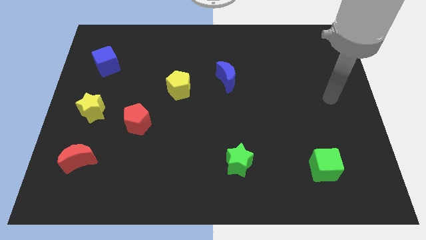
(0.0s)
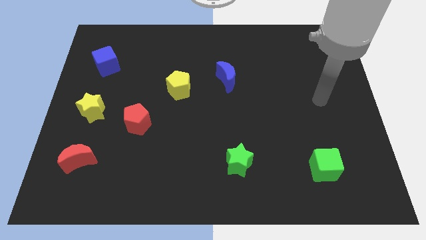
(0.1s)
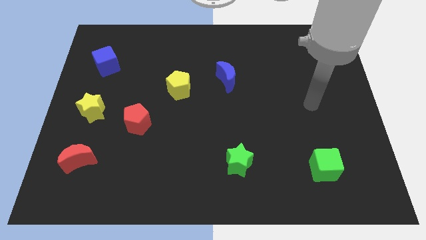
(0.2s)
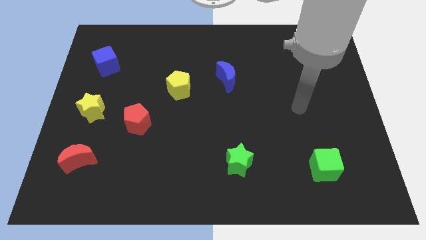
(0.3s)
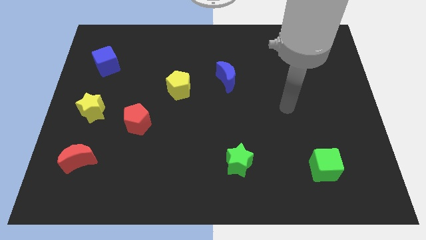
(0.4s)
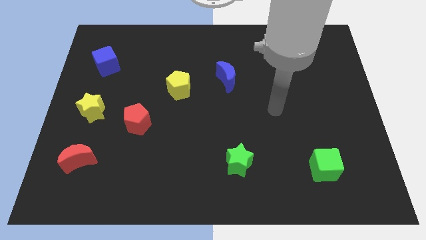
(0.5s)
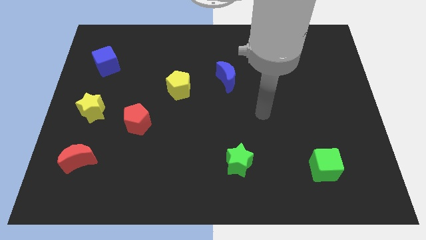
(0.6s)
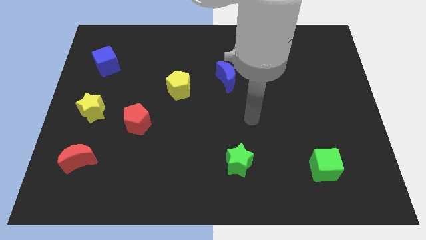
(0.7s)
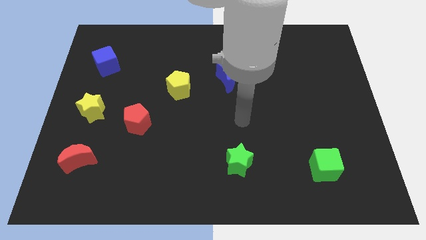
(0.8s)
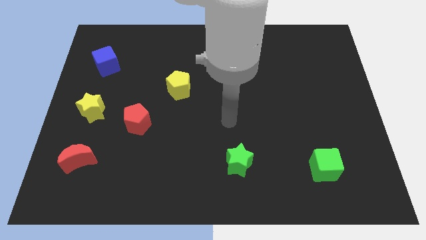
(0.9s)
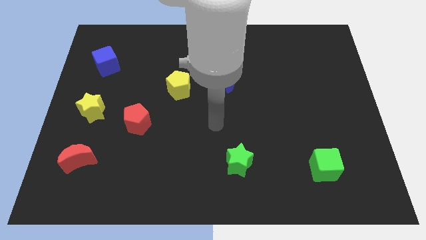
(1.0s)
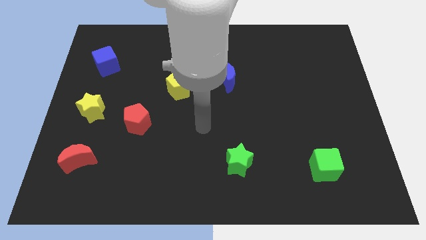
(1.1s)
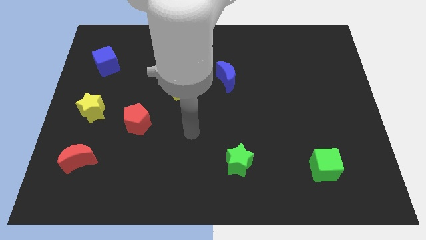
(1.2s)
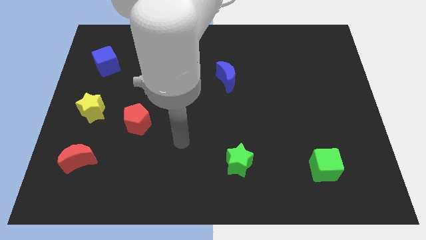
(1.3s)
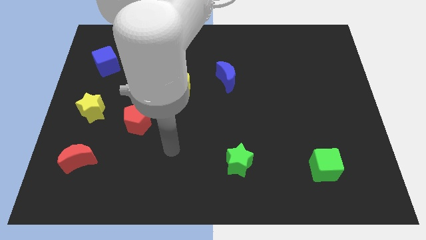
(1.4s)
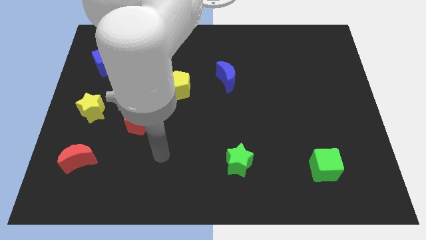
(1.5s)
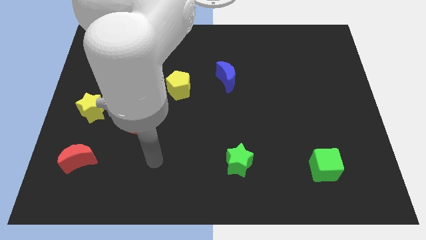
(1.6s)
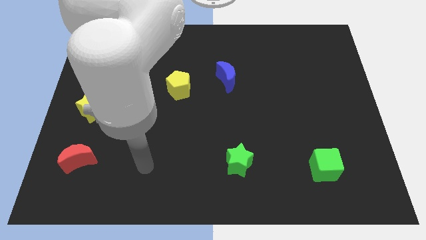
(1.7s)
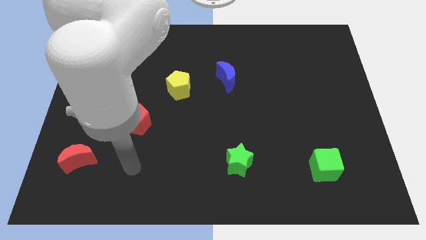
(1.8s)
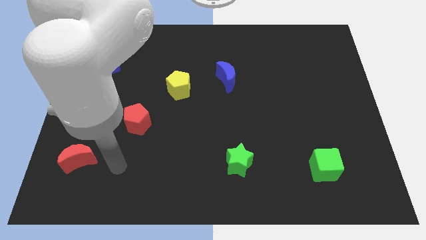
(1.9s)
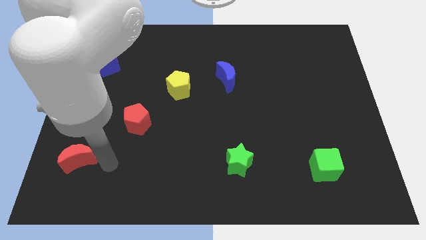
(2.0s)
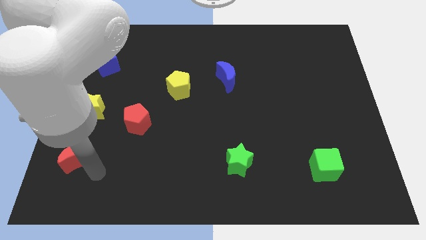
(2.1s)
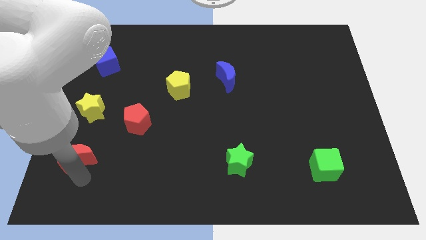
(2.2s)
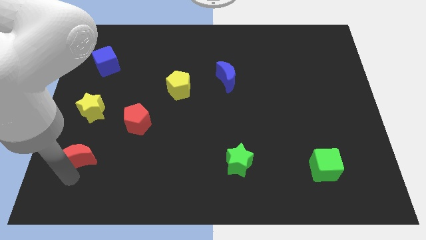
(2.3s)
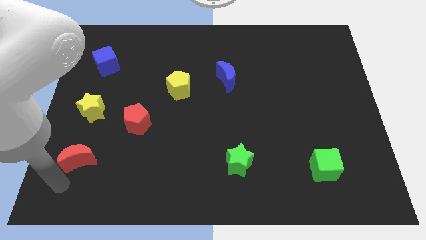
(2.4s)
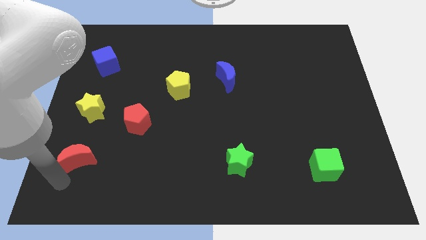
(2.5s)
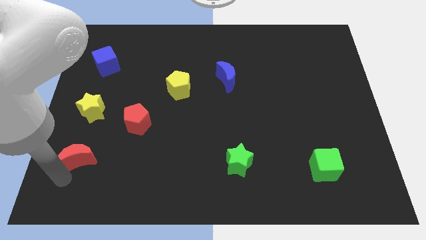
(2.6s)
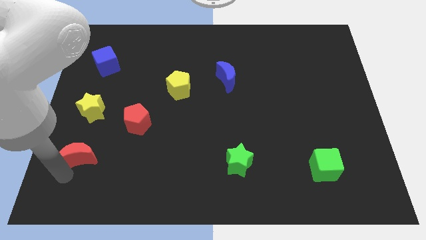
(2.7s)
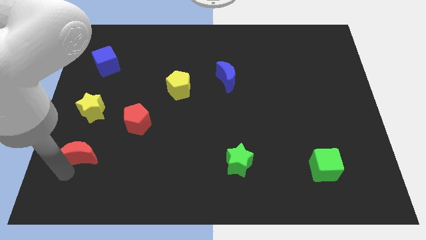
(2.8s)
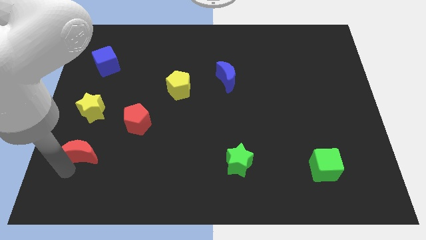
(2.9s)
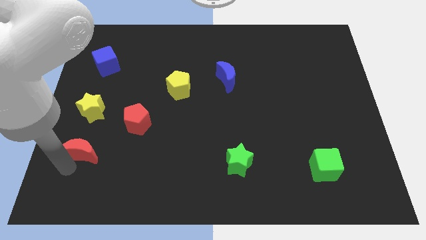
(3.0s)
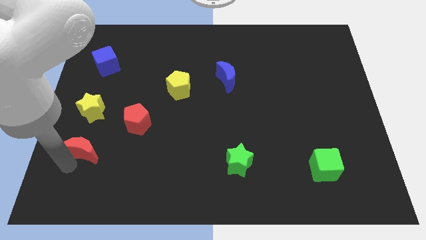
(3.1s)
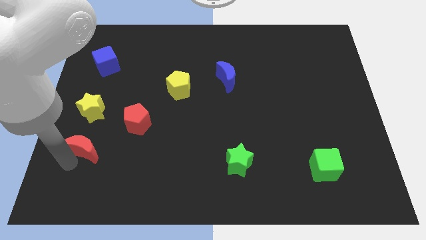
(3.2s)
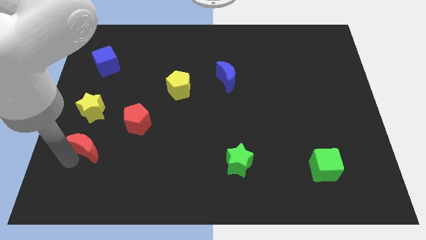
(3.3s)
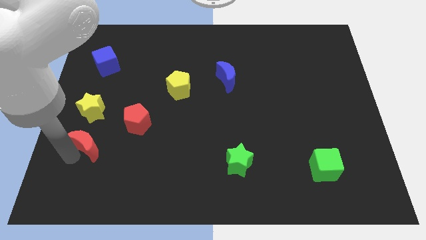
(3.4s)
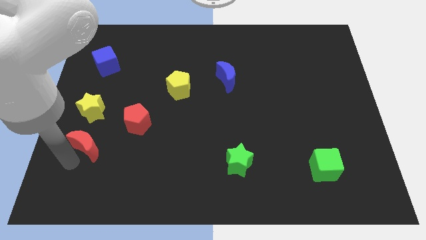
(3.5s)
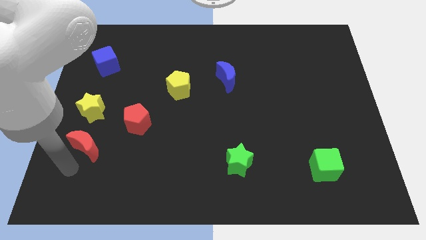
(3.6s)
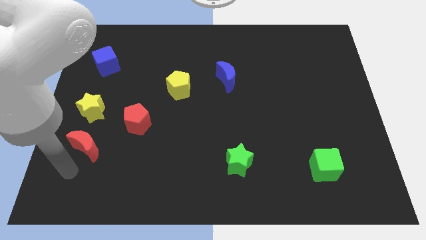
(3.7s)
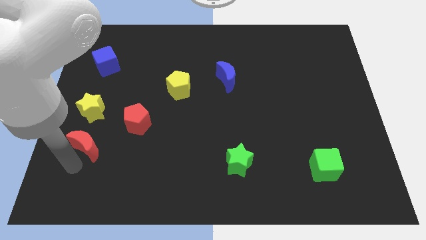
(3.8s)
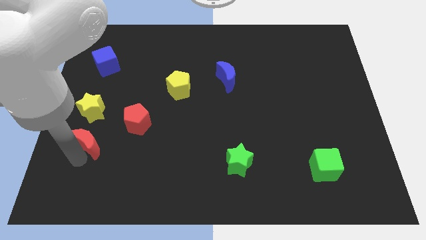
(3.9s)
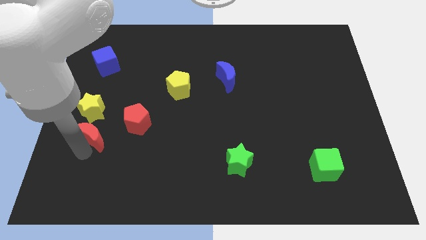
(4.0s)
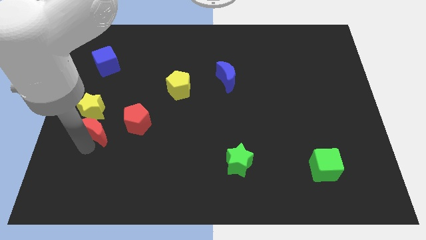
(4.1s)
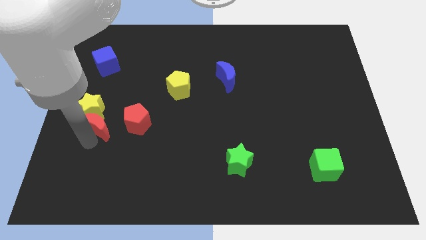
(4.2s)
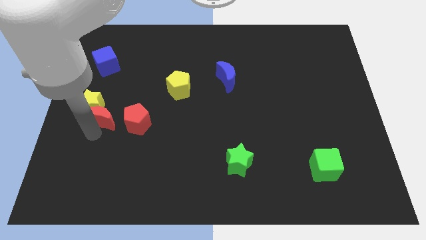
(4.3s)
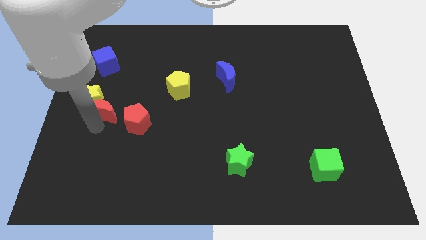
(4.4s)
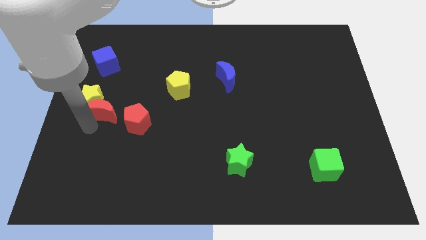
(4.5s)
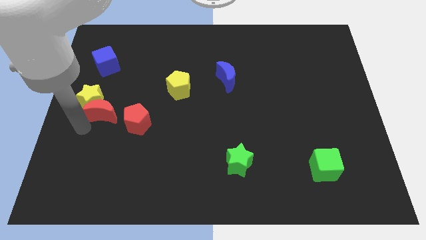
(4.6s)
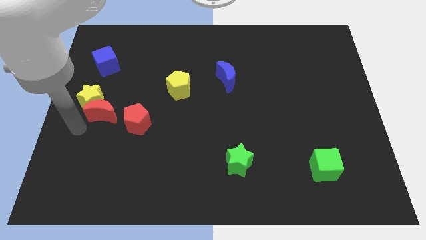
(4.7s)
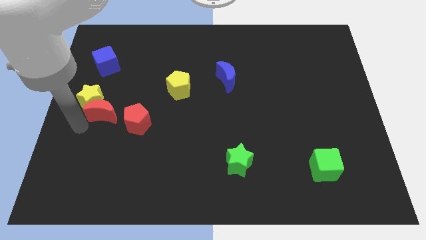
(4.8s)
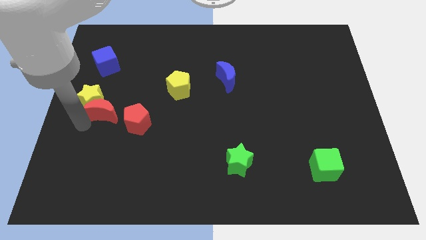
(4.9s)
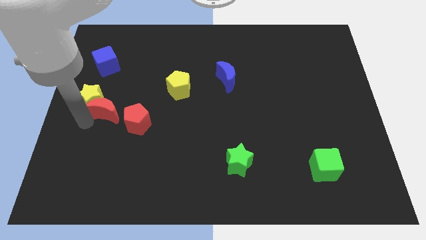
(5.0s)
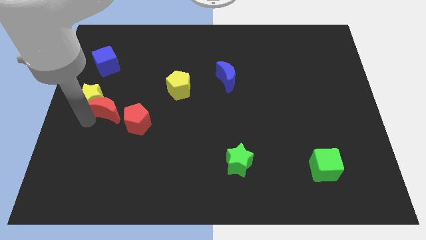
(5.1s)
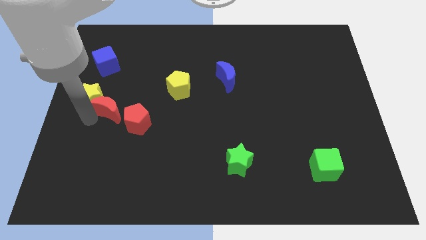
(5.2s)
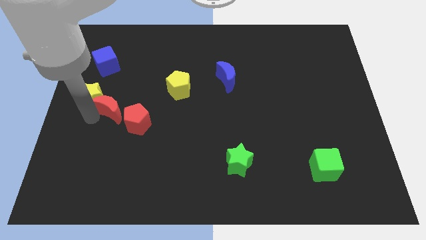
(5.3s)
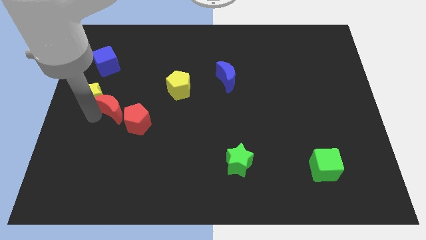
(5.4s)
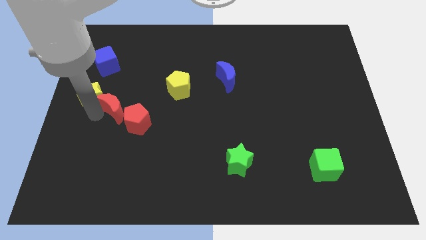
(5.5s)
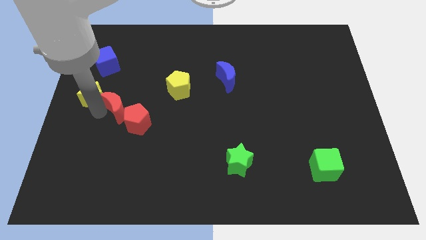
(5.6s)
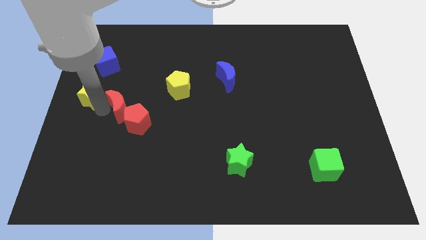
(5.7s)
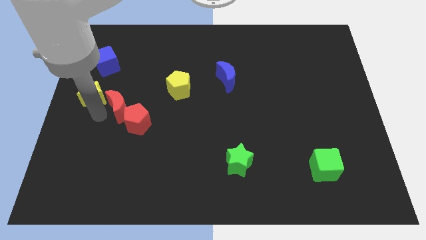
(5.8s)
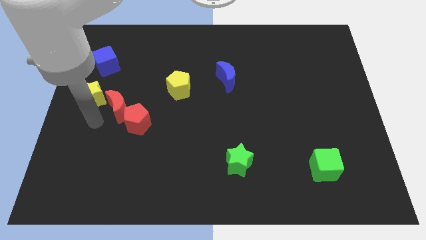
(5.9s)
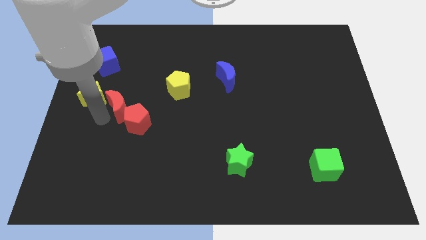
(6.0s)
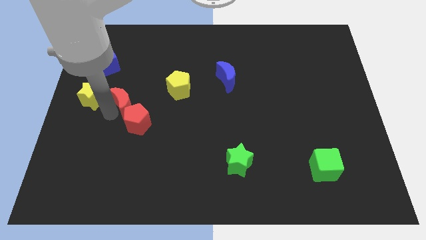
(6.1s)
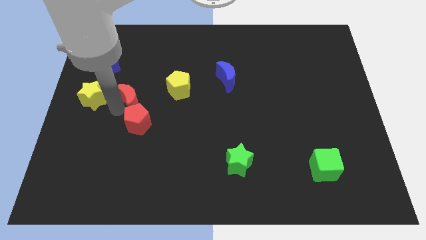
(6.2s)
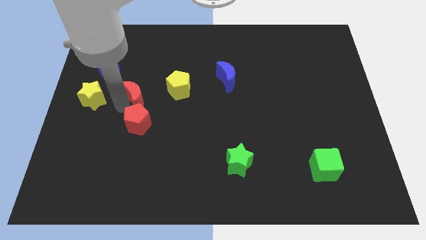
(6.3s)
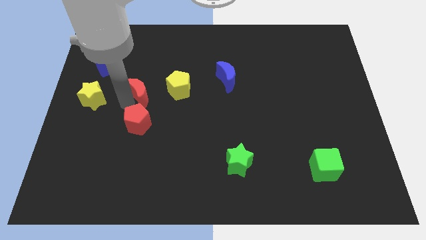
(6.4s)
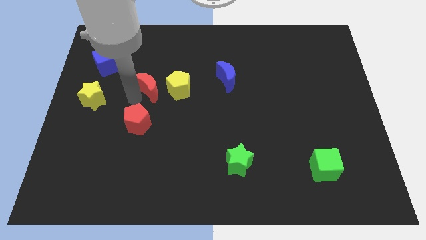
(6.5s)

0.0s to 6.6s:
slide the red moon upwards and right

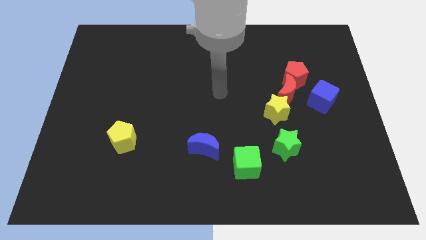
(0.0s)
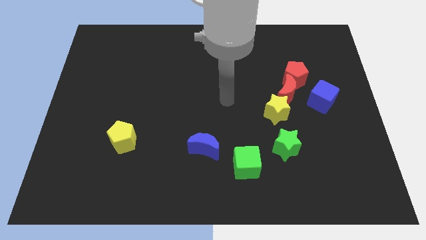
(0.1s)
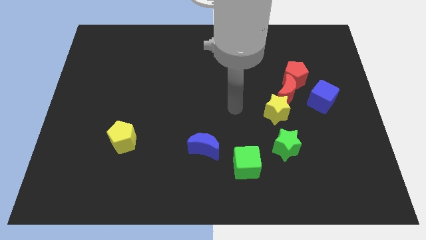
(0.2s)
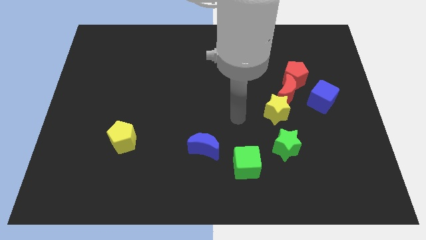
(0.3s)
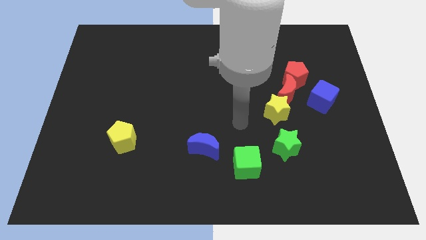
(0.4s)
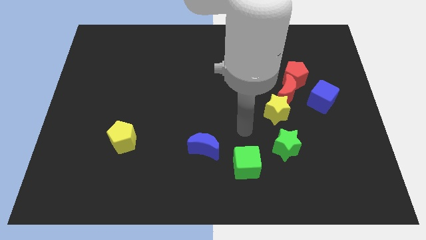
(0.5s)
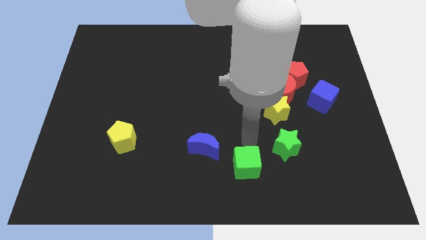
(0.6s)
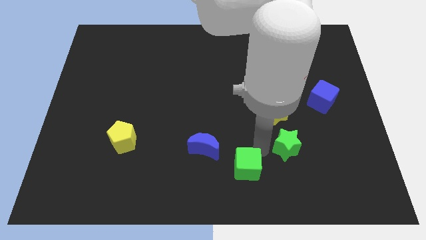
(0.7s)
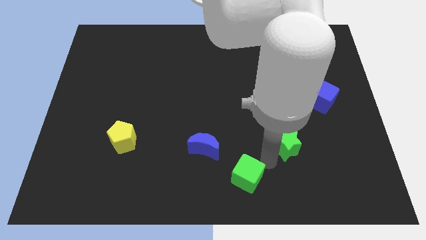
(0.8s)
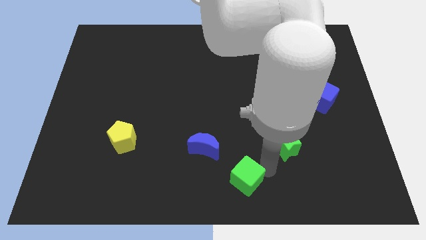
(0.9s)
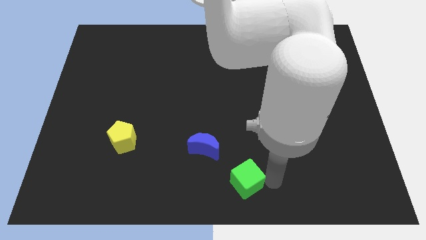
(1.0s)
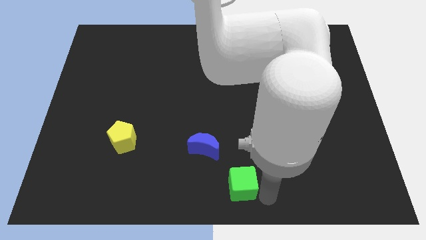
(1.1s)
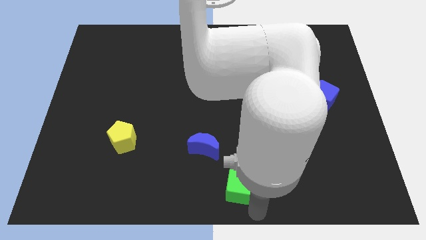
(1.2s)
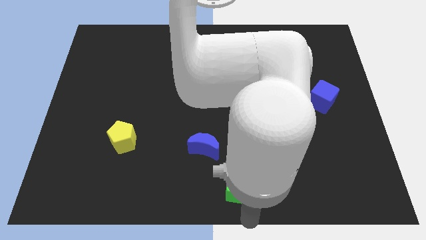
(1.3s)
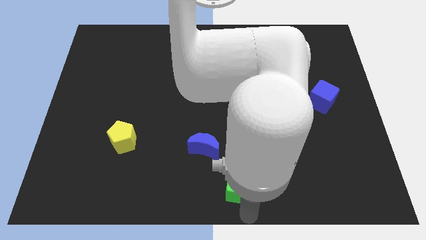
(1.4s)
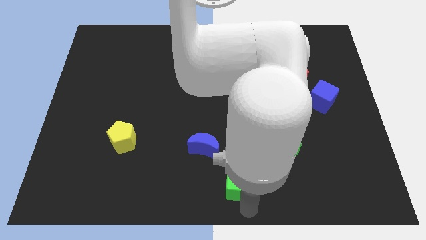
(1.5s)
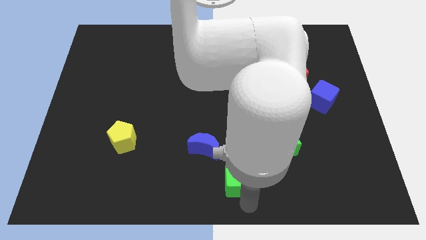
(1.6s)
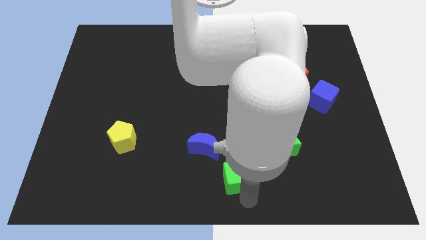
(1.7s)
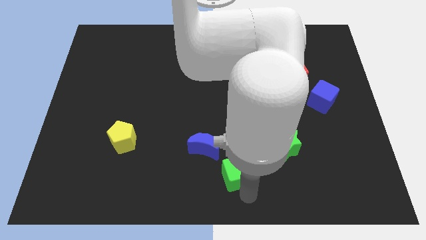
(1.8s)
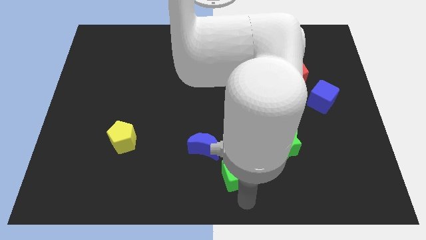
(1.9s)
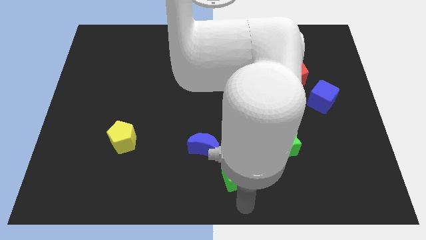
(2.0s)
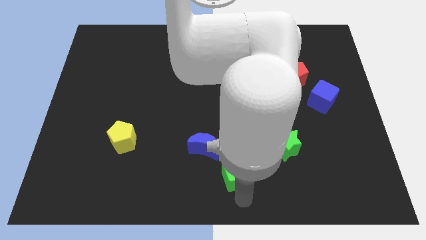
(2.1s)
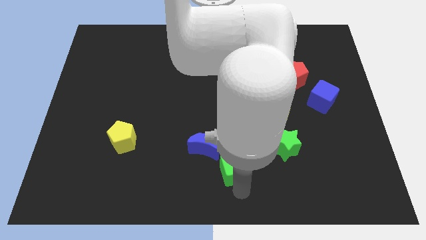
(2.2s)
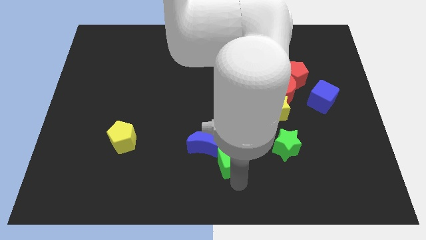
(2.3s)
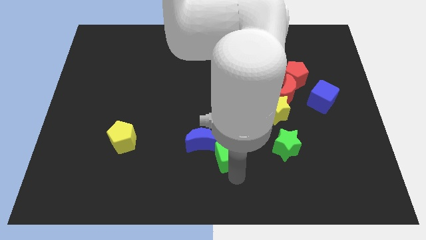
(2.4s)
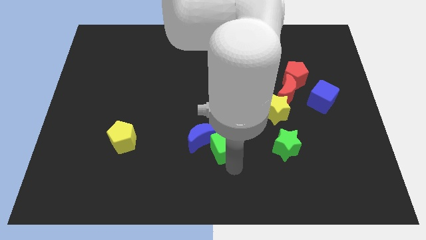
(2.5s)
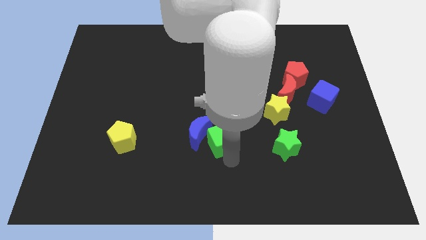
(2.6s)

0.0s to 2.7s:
slide the green cube upwards and to the left somewhat
